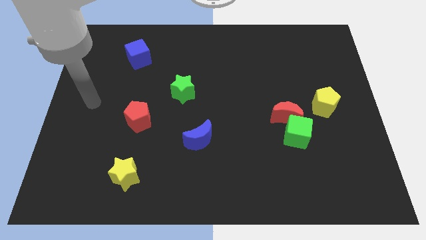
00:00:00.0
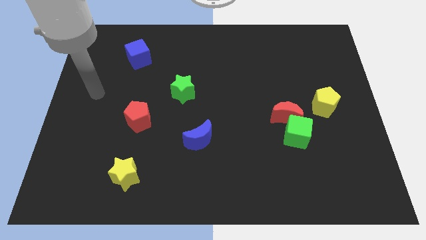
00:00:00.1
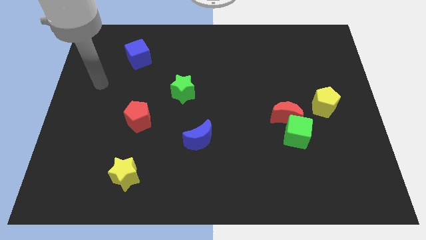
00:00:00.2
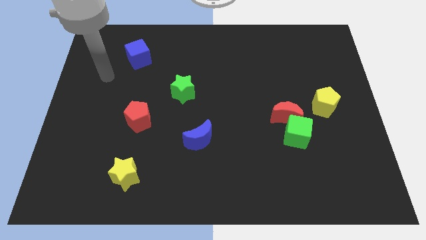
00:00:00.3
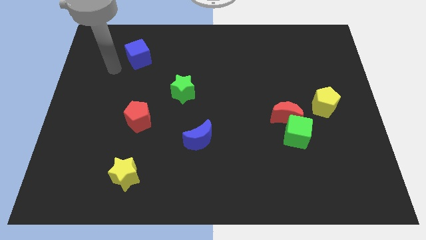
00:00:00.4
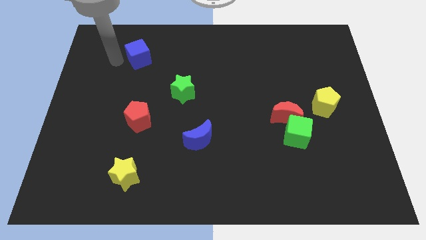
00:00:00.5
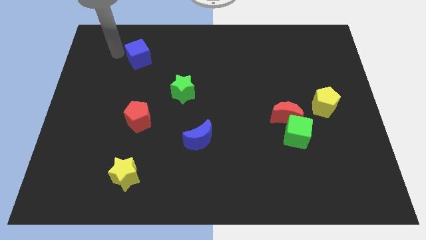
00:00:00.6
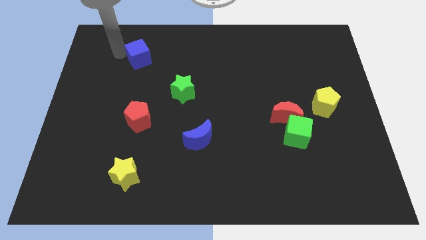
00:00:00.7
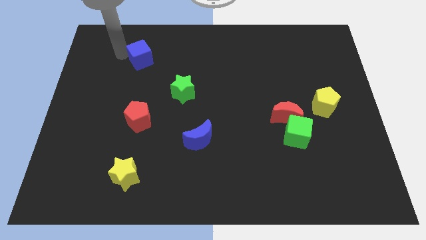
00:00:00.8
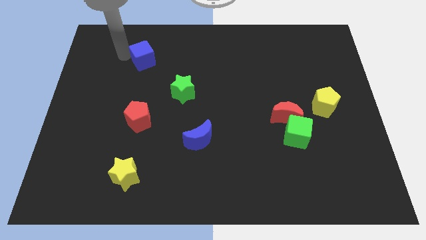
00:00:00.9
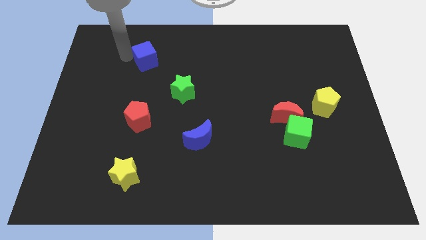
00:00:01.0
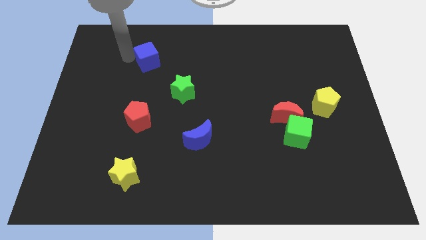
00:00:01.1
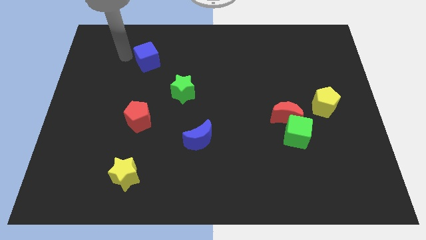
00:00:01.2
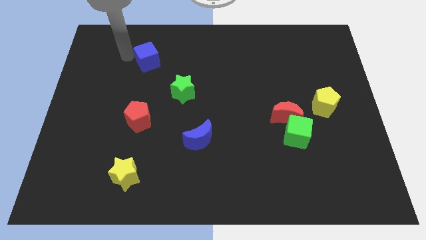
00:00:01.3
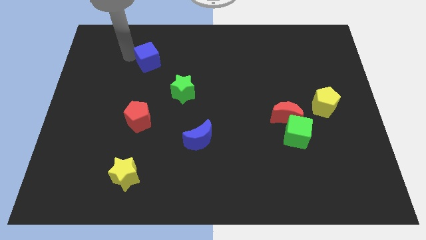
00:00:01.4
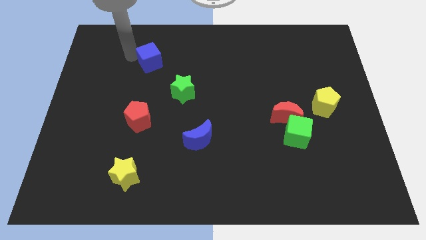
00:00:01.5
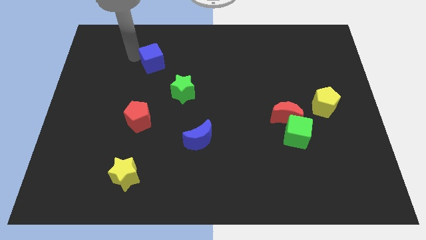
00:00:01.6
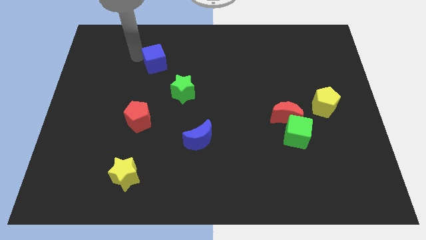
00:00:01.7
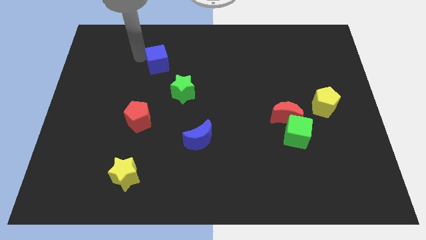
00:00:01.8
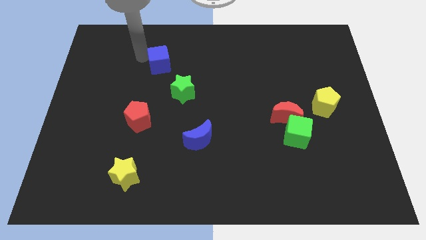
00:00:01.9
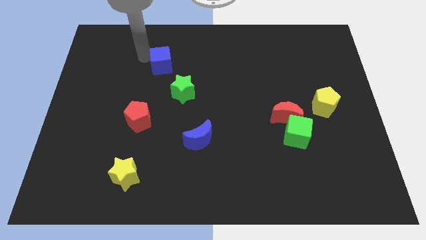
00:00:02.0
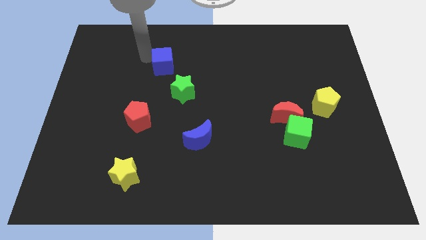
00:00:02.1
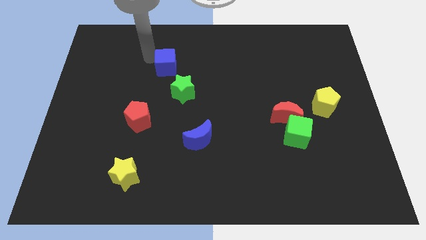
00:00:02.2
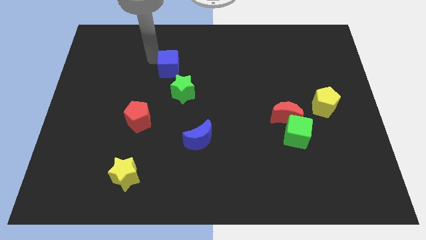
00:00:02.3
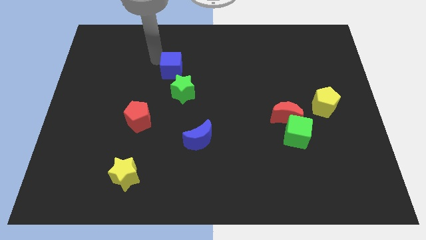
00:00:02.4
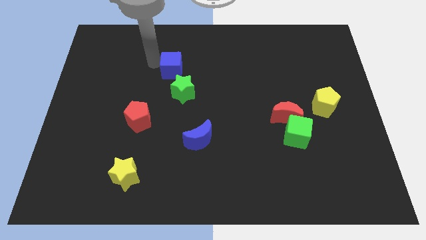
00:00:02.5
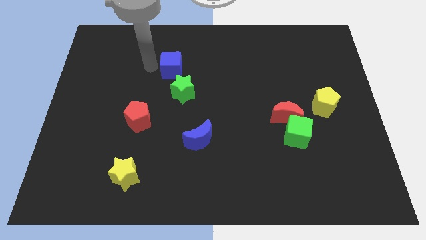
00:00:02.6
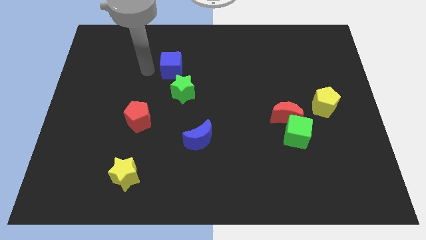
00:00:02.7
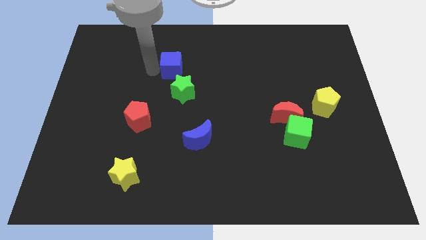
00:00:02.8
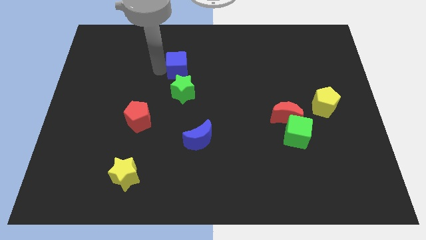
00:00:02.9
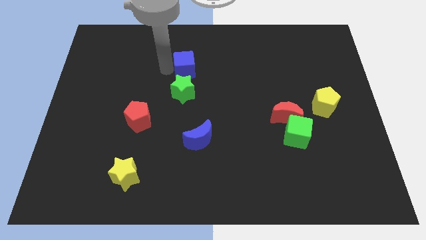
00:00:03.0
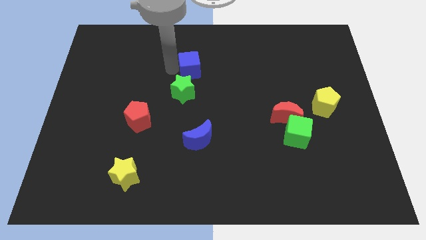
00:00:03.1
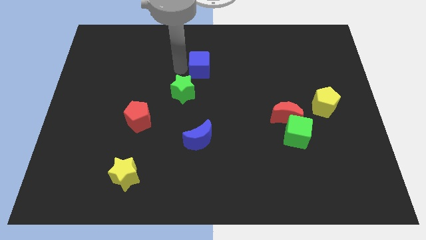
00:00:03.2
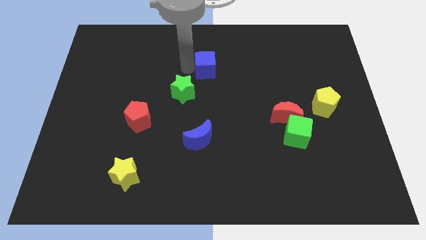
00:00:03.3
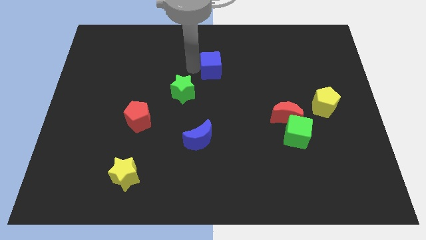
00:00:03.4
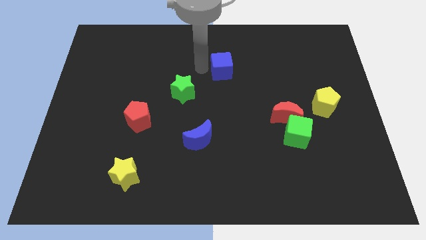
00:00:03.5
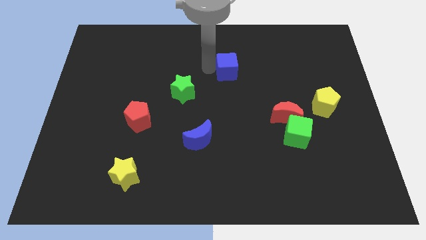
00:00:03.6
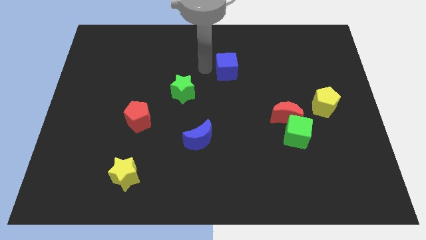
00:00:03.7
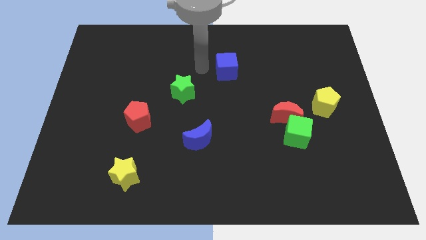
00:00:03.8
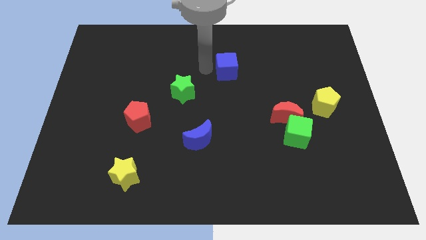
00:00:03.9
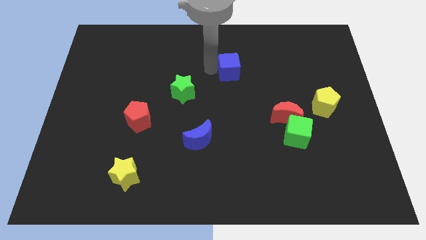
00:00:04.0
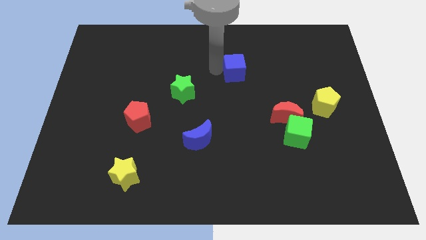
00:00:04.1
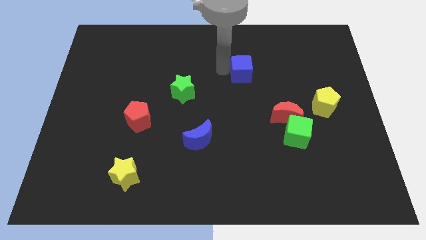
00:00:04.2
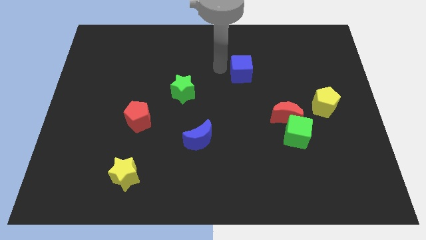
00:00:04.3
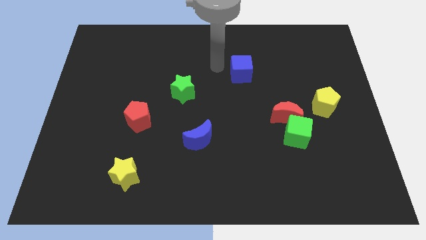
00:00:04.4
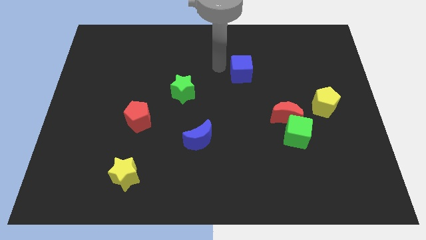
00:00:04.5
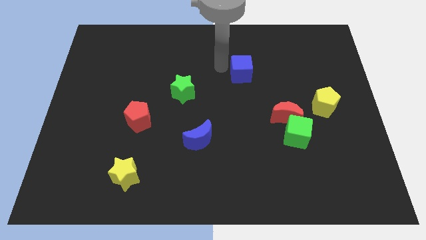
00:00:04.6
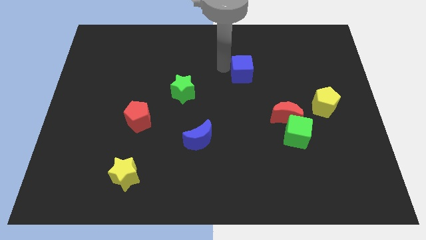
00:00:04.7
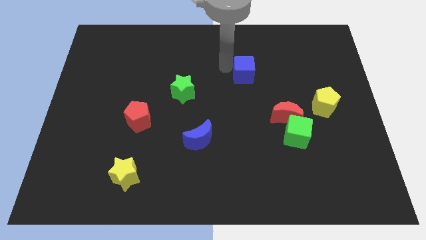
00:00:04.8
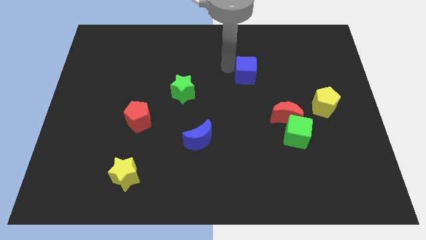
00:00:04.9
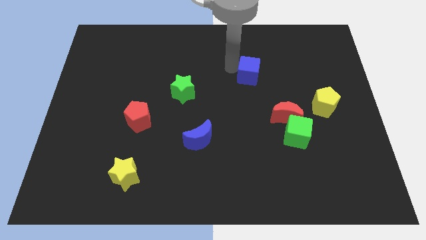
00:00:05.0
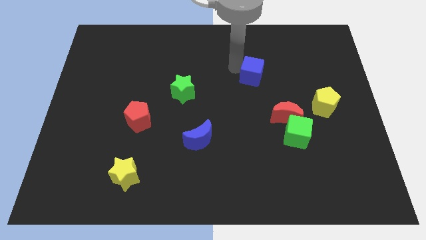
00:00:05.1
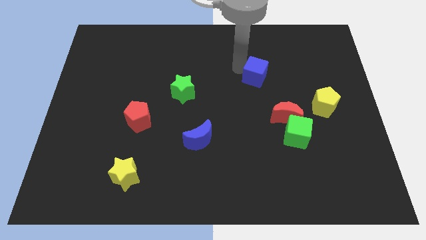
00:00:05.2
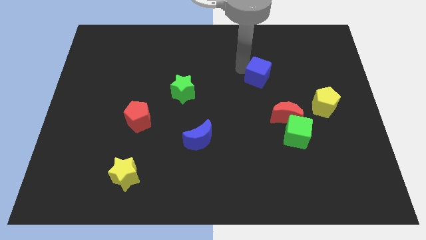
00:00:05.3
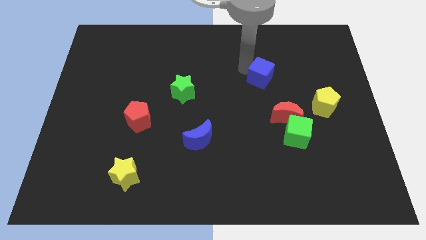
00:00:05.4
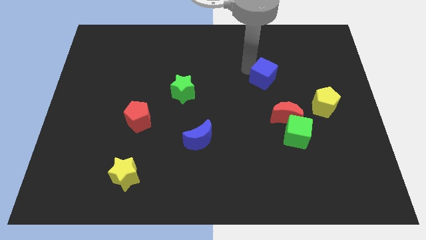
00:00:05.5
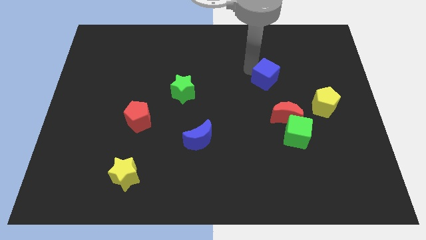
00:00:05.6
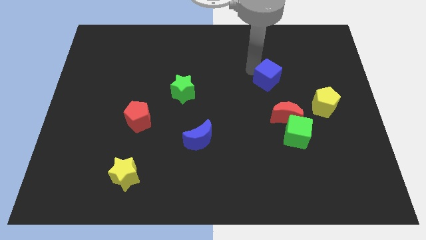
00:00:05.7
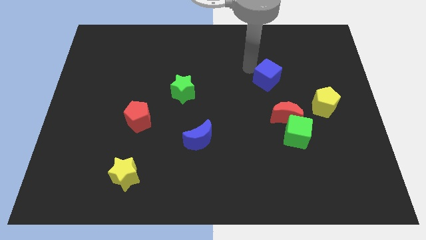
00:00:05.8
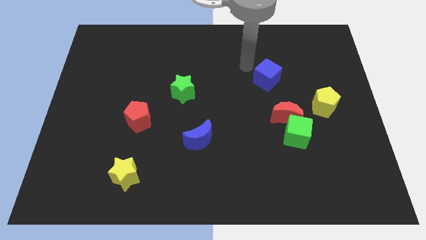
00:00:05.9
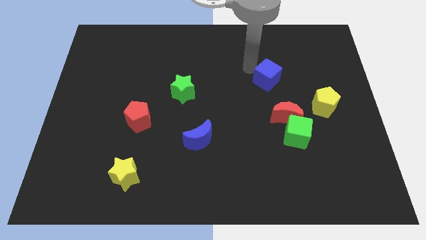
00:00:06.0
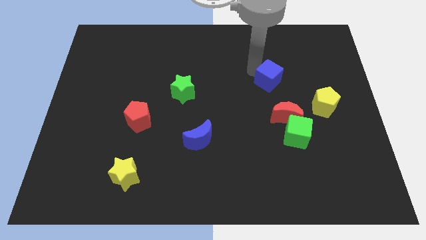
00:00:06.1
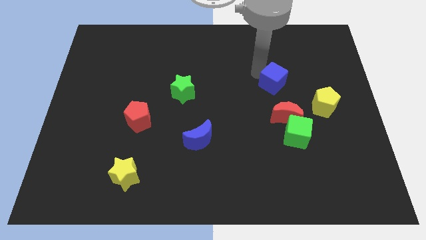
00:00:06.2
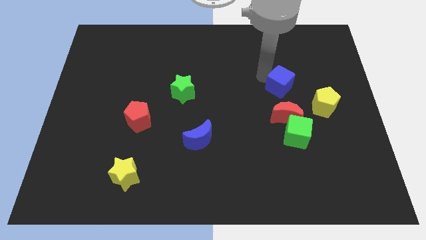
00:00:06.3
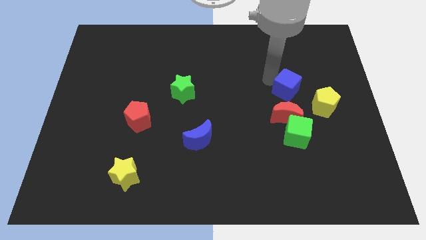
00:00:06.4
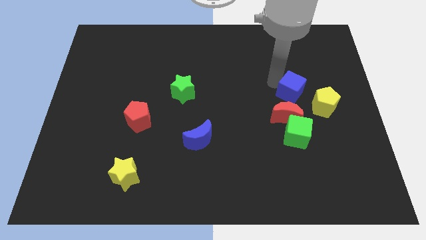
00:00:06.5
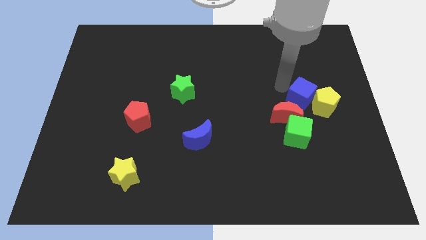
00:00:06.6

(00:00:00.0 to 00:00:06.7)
move the blue cube close to the yellow pentagon

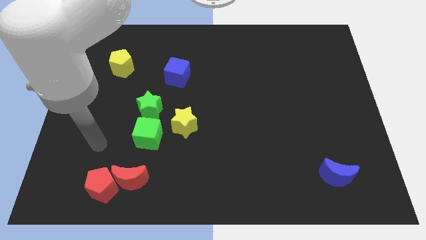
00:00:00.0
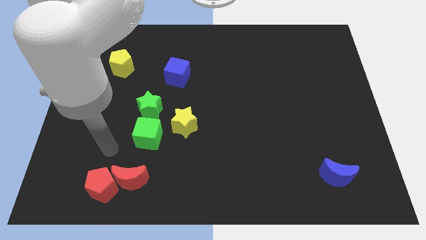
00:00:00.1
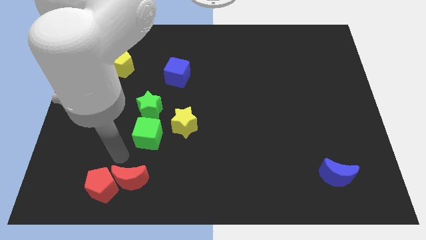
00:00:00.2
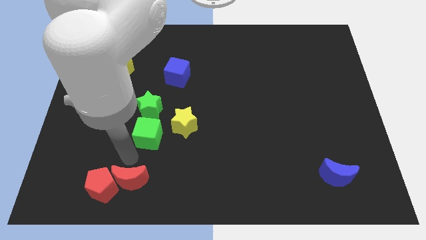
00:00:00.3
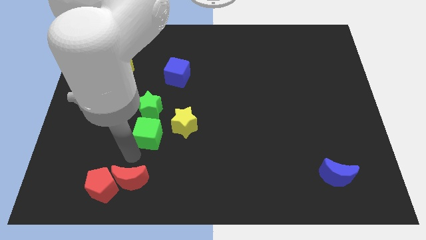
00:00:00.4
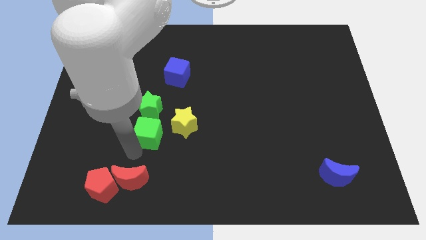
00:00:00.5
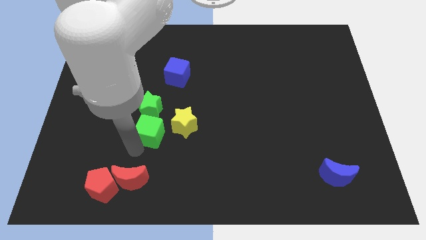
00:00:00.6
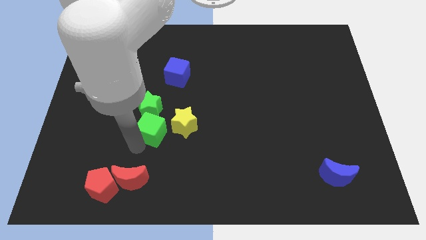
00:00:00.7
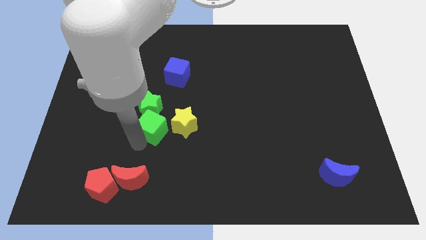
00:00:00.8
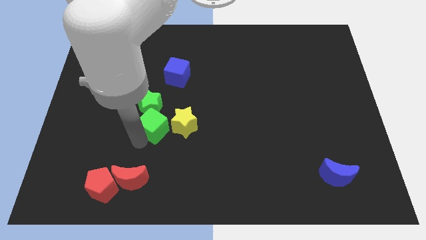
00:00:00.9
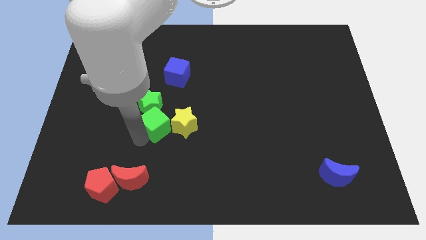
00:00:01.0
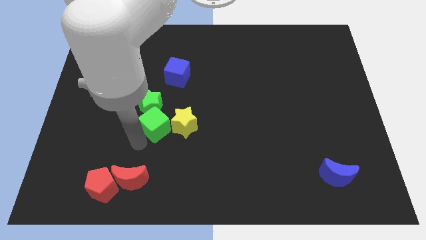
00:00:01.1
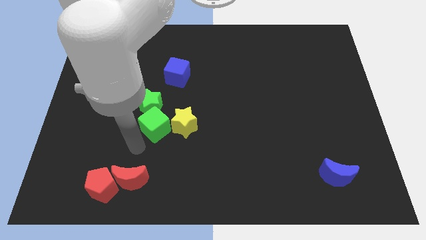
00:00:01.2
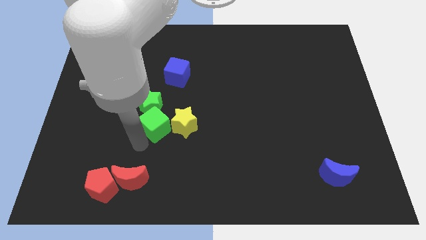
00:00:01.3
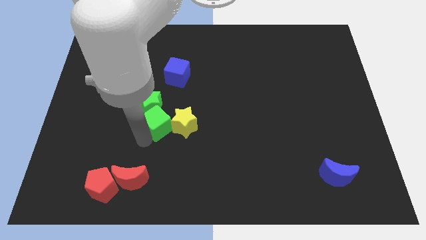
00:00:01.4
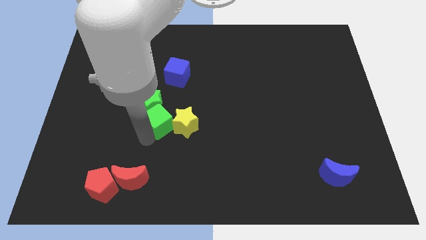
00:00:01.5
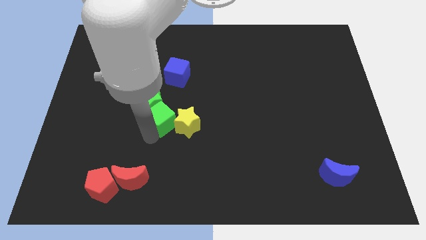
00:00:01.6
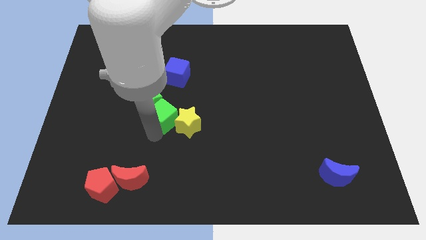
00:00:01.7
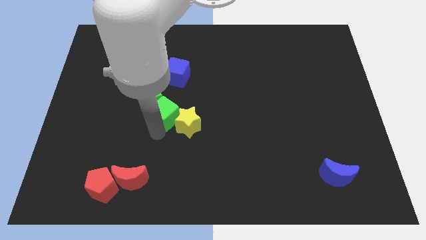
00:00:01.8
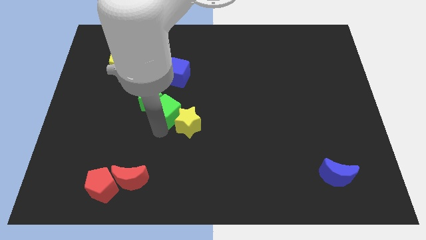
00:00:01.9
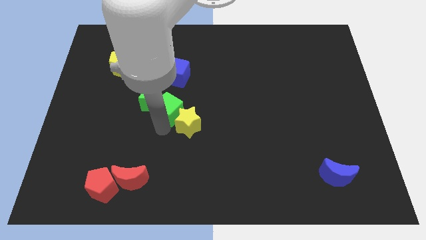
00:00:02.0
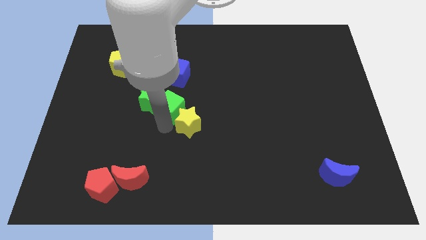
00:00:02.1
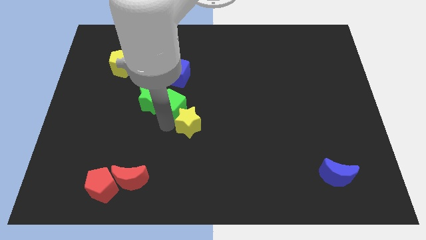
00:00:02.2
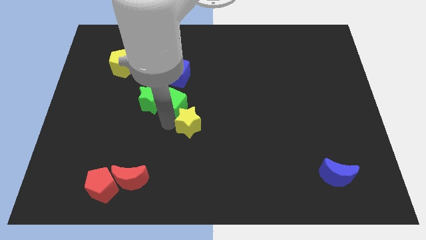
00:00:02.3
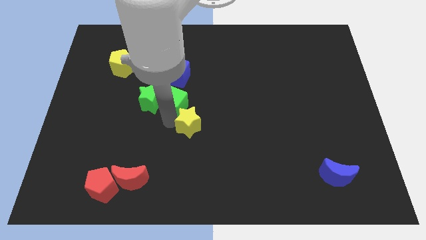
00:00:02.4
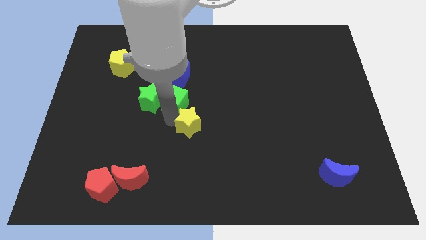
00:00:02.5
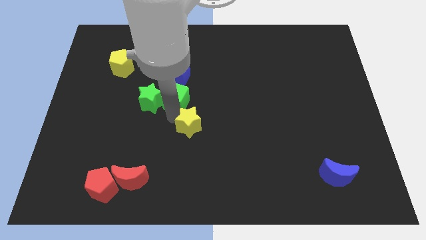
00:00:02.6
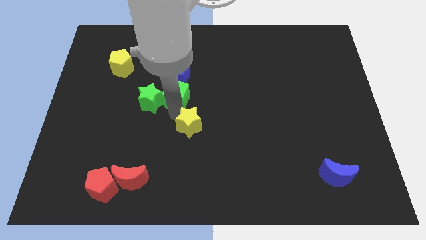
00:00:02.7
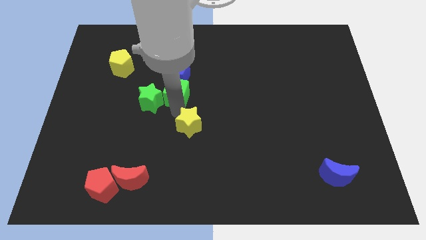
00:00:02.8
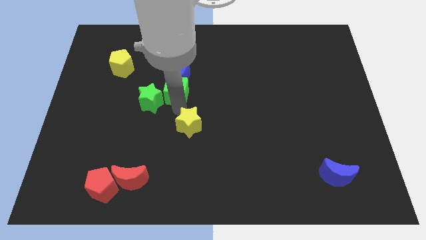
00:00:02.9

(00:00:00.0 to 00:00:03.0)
put the green cube towards the blue cube
